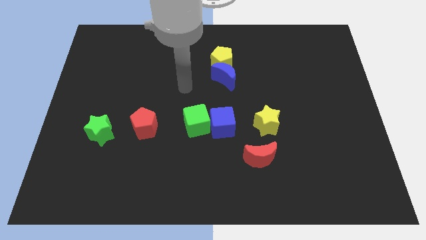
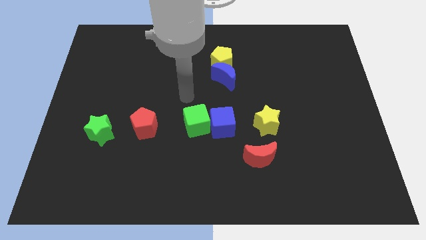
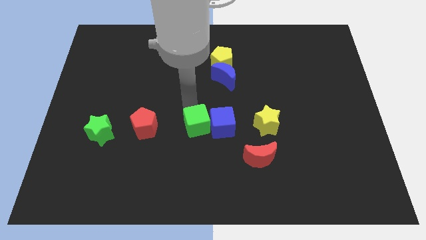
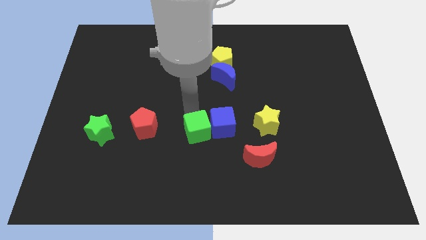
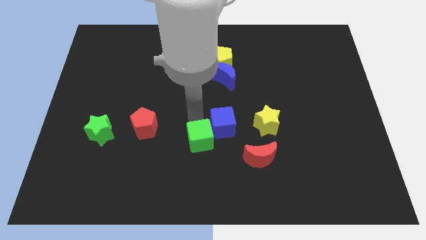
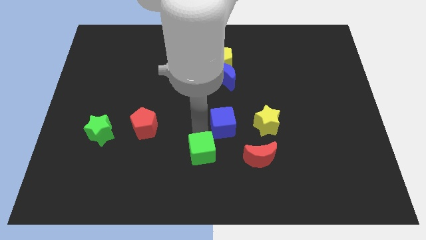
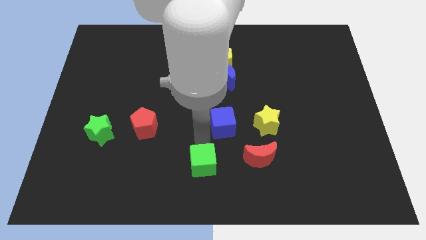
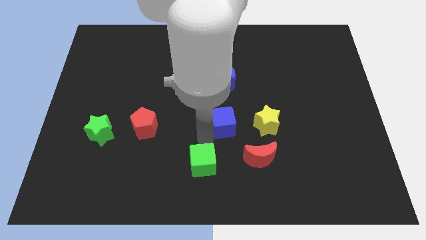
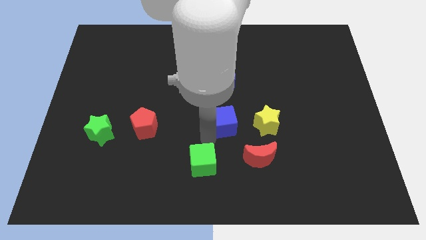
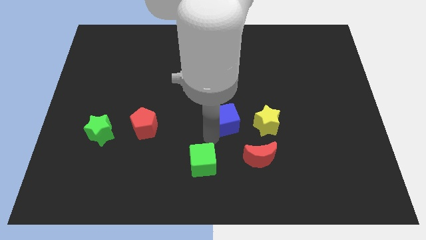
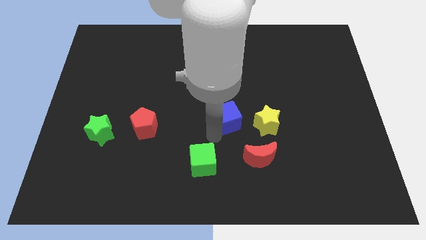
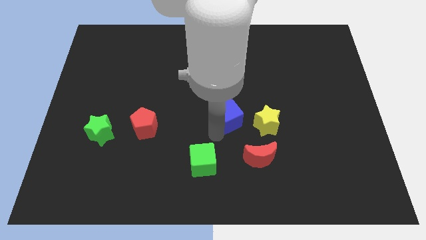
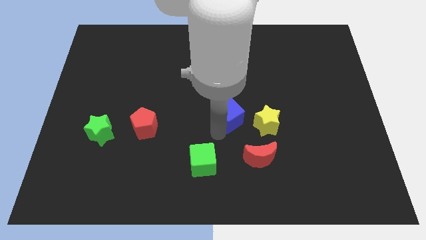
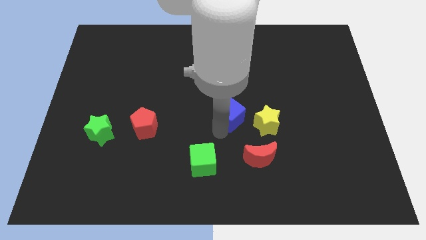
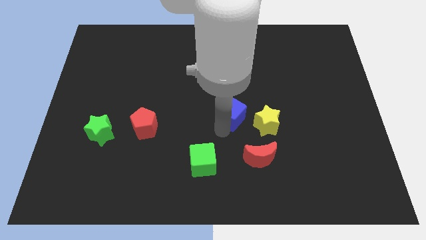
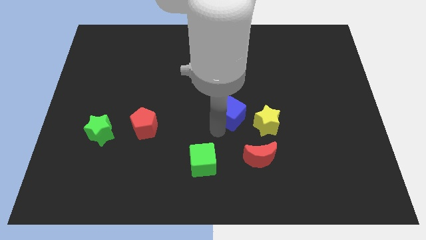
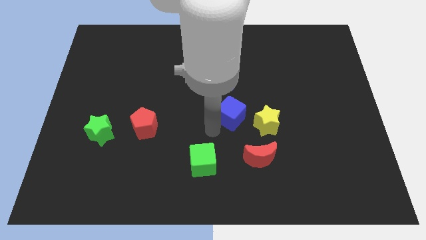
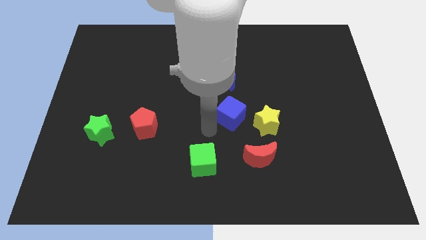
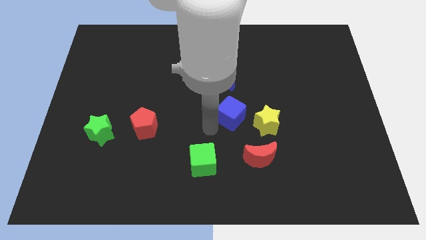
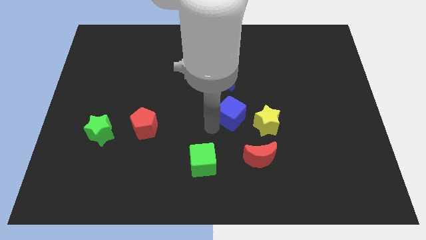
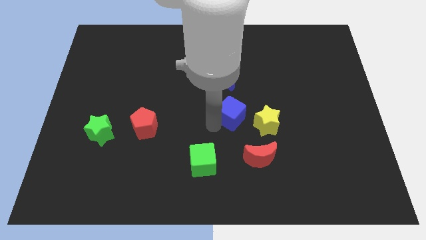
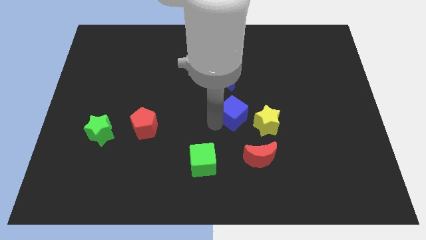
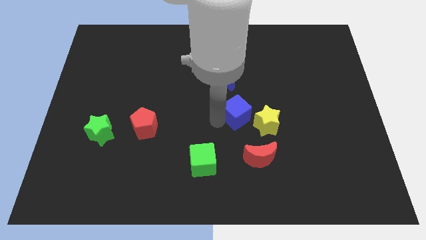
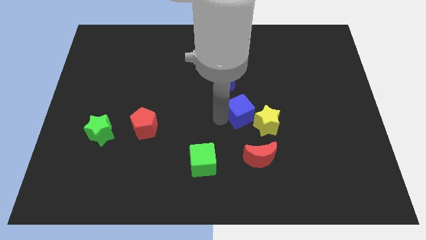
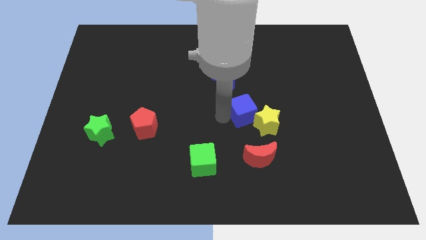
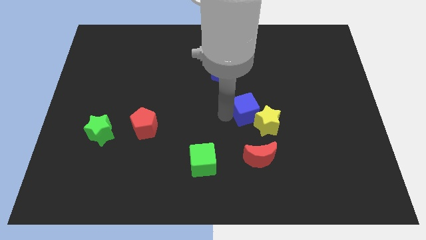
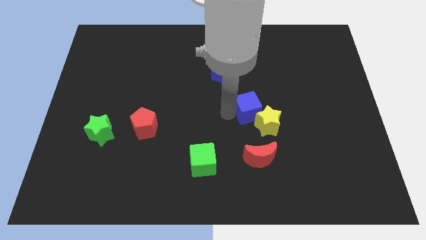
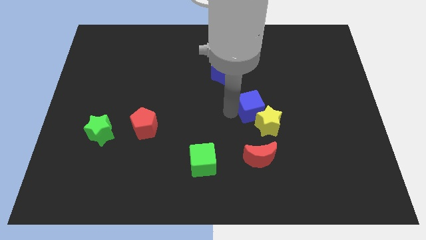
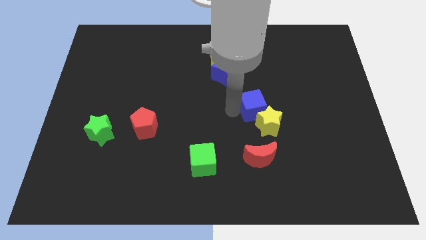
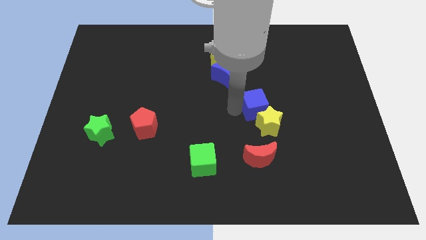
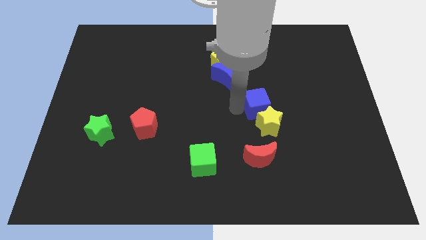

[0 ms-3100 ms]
move the blue cube right a little bit

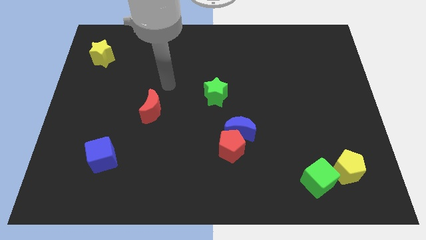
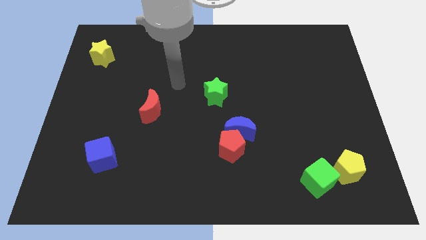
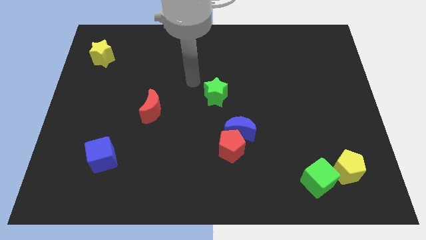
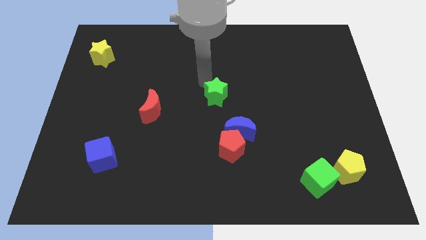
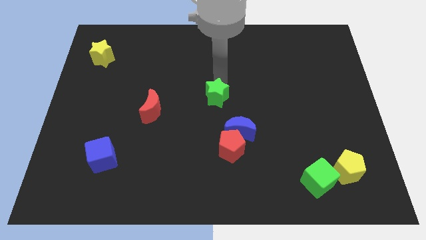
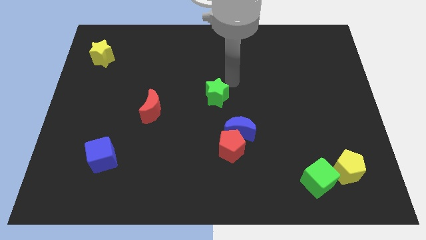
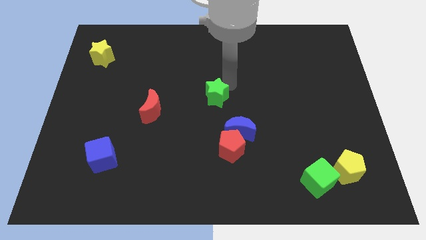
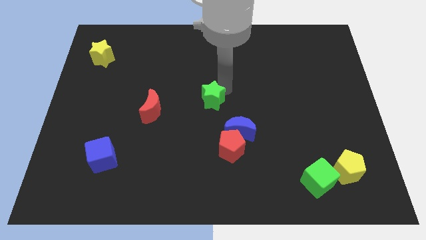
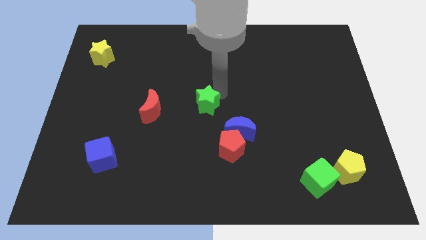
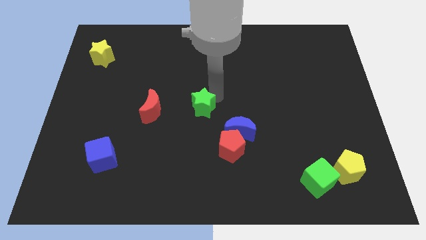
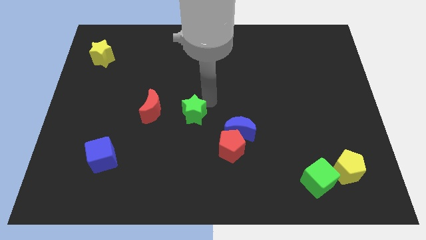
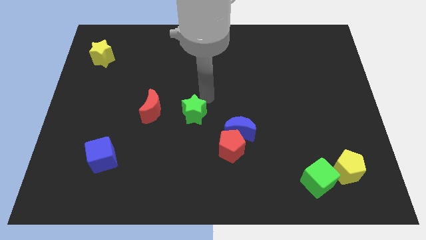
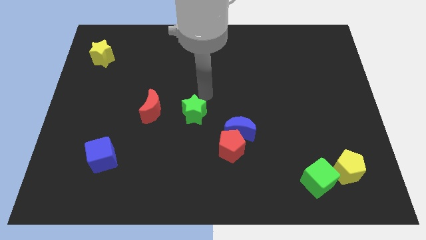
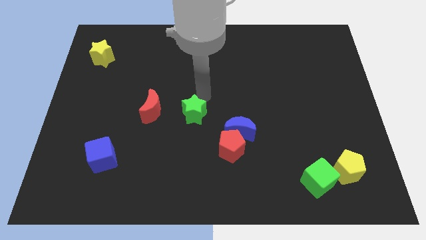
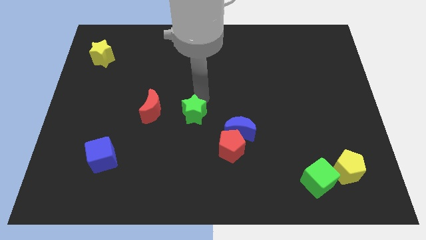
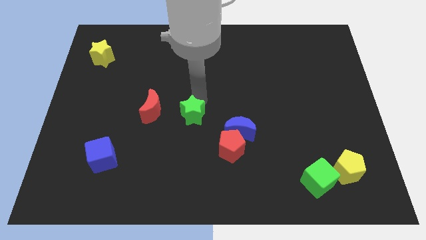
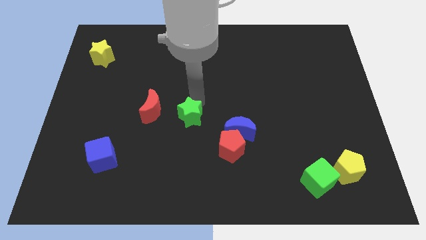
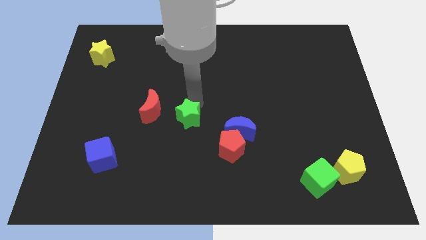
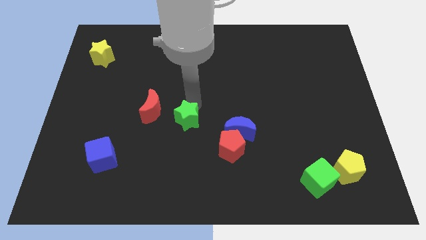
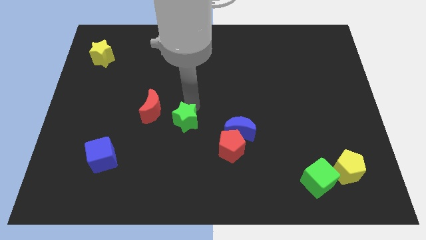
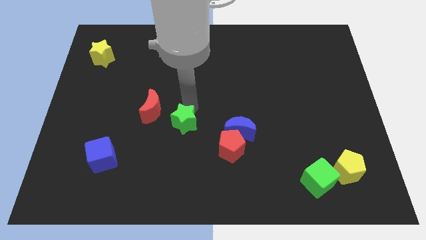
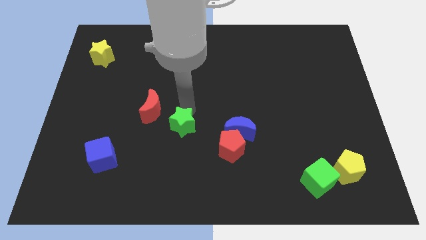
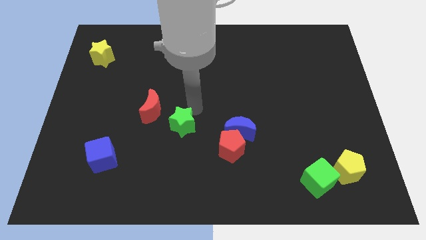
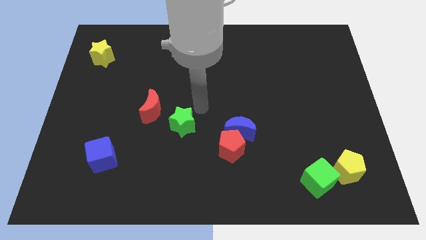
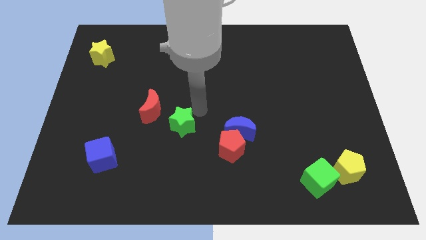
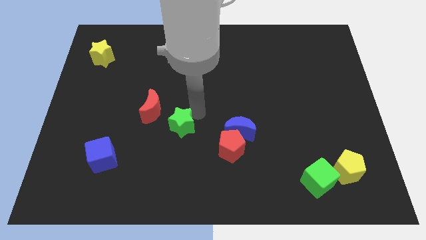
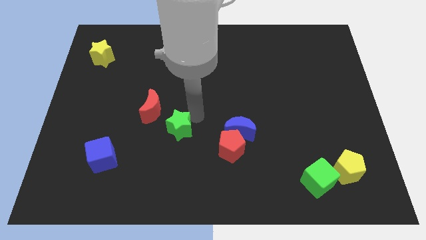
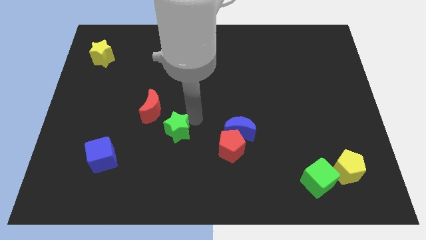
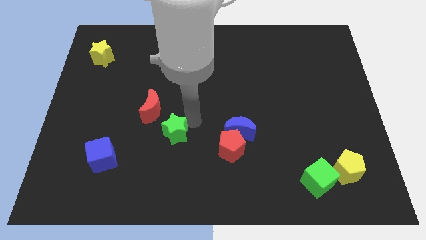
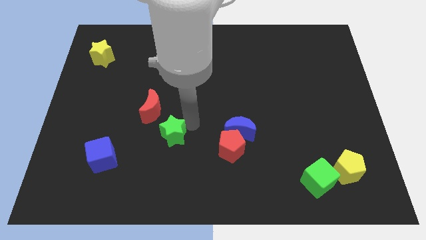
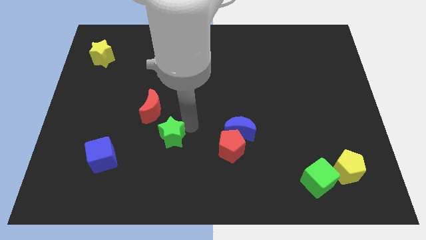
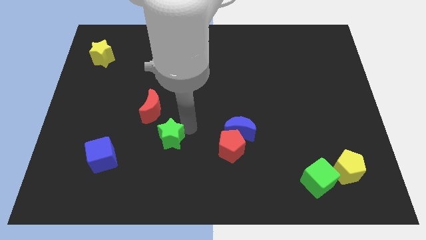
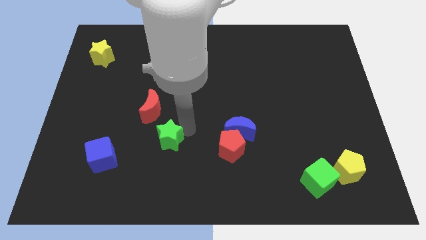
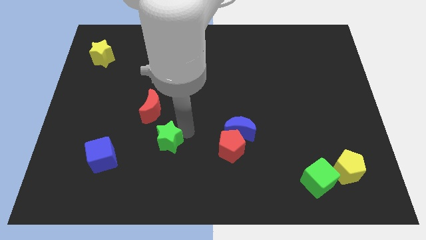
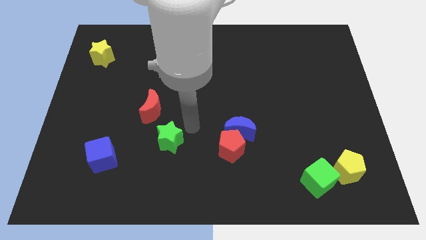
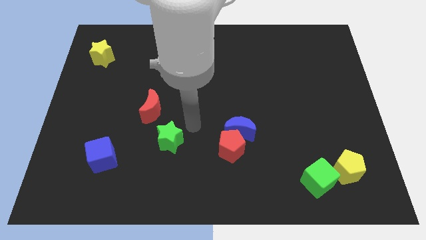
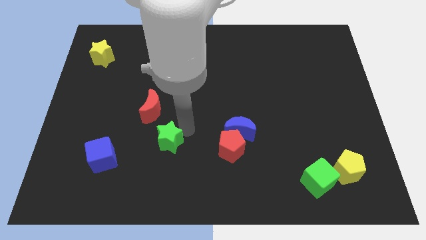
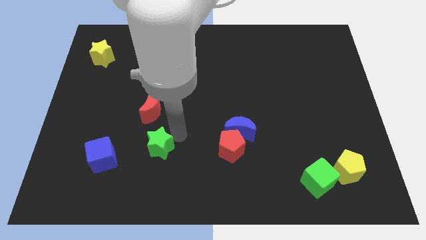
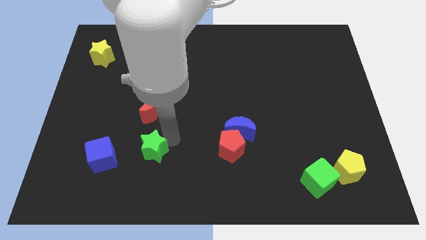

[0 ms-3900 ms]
push the green star diagonally down and left

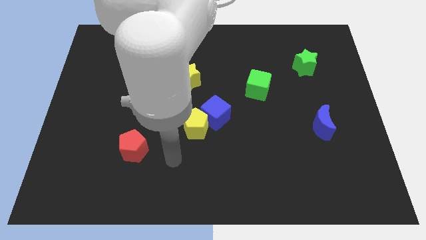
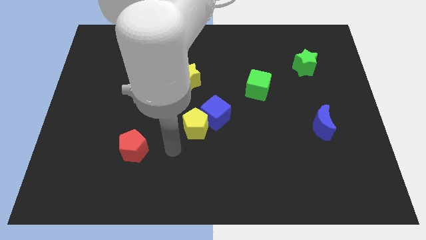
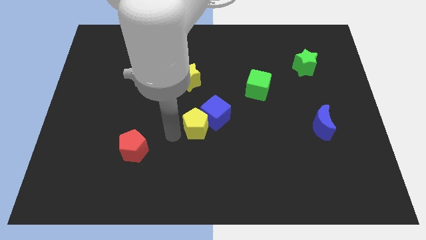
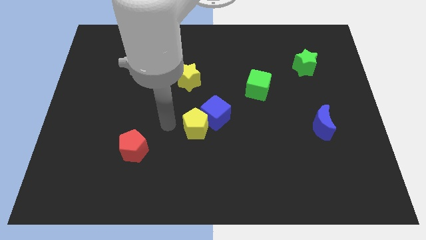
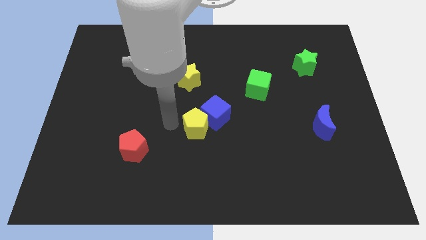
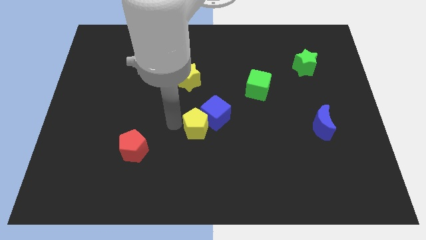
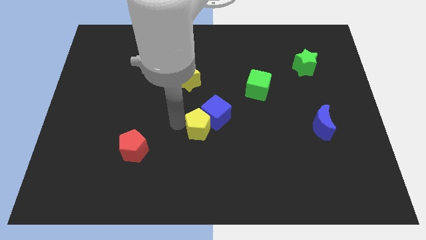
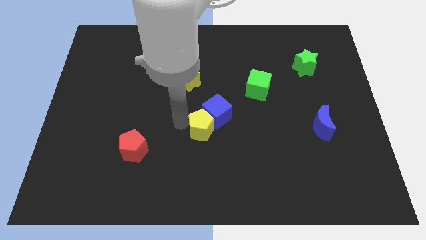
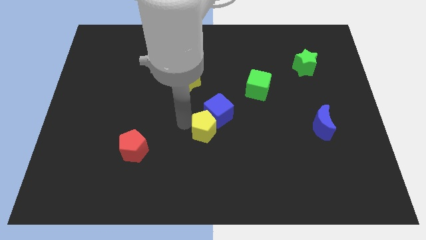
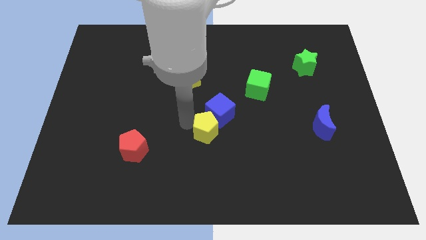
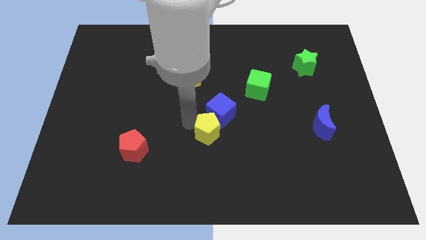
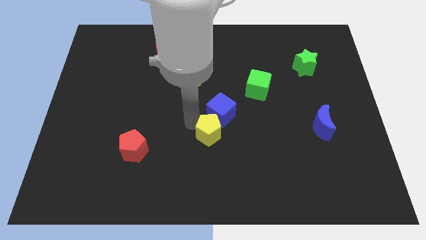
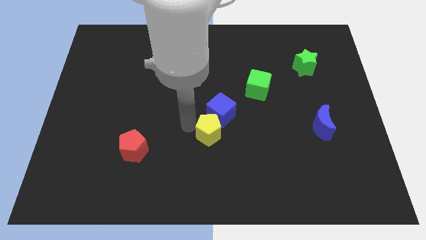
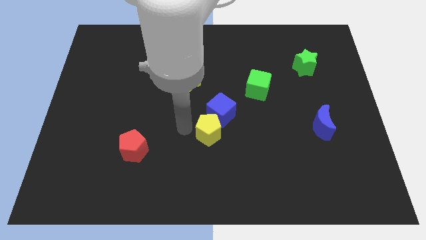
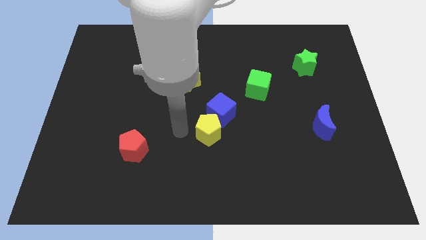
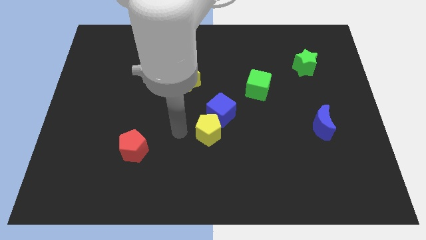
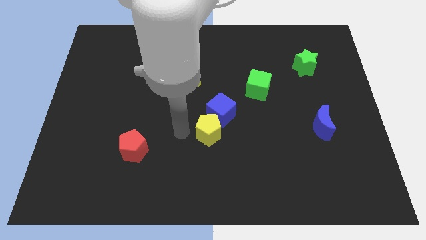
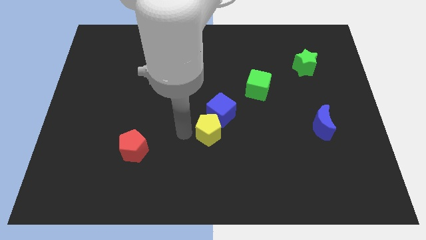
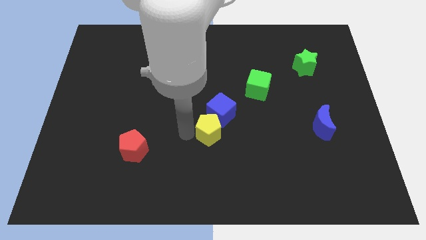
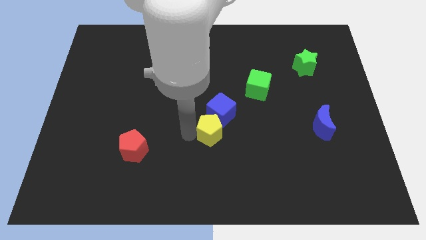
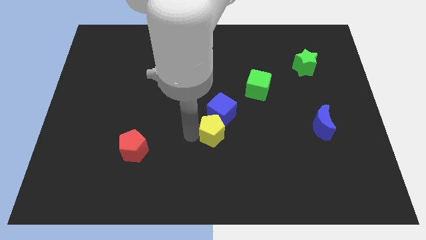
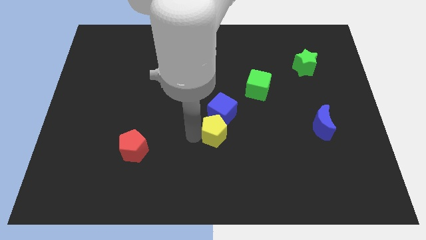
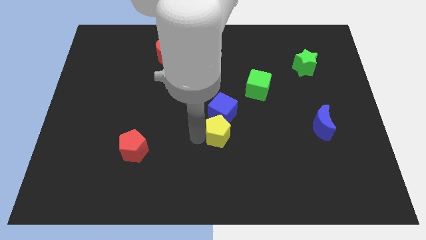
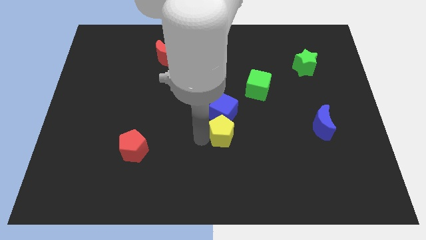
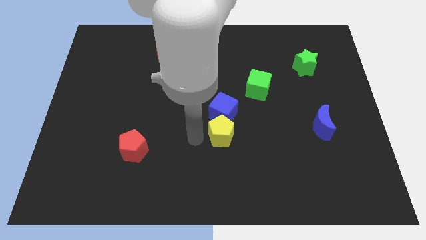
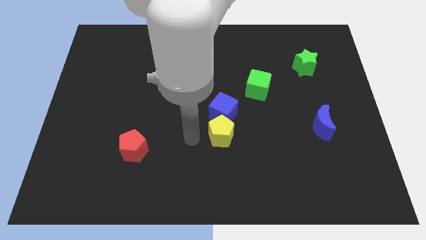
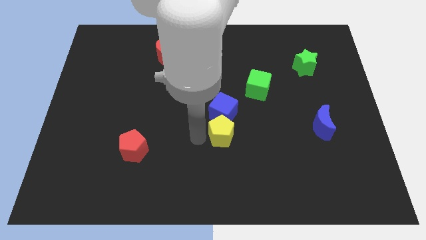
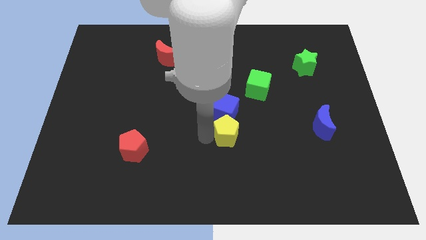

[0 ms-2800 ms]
slightly slide the yellow pentagon to the right
